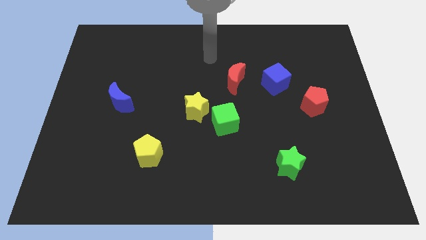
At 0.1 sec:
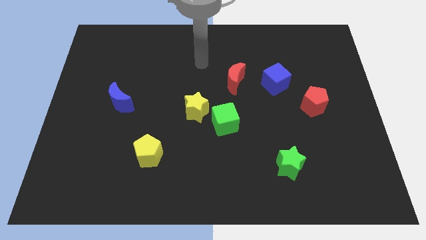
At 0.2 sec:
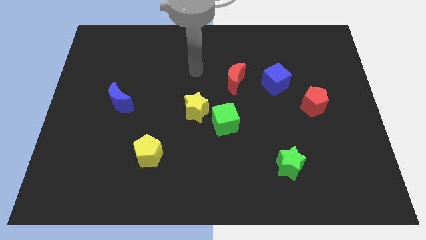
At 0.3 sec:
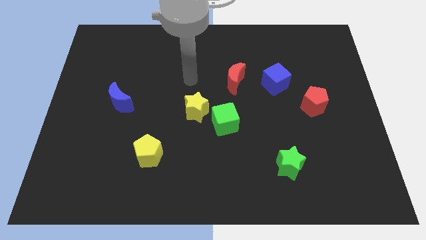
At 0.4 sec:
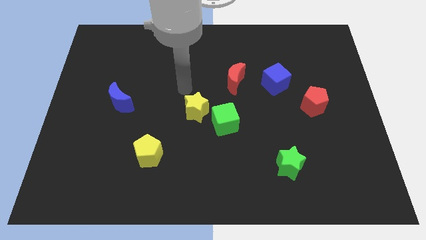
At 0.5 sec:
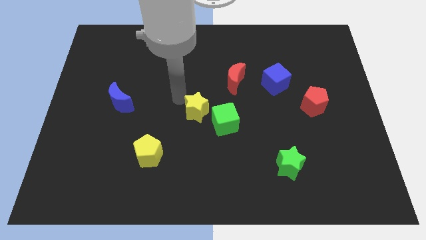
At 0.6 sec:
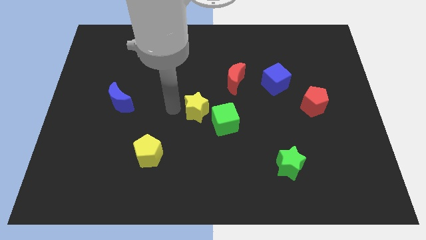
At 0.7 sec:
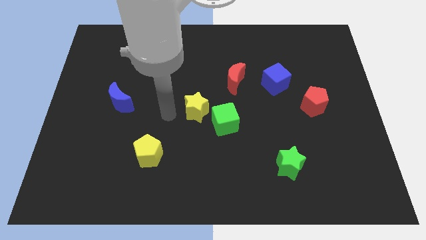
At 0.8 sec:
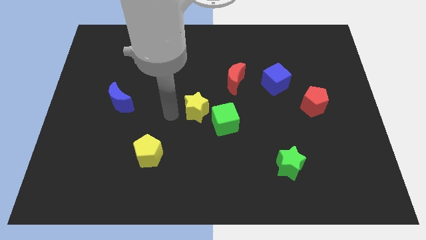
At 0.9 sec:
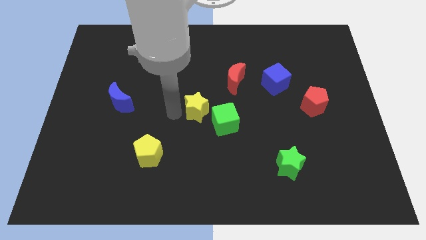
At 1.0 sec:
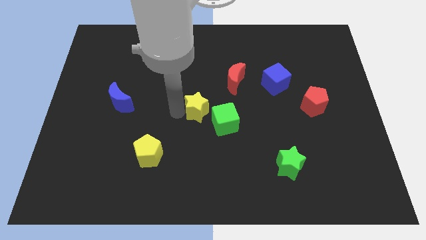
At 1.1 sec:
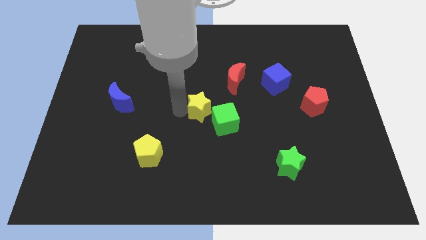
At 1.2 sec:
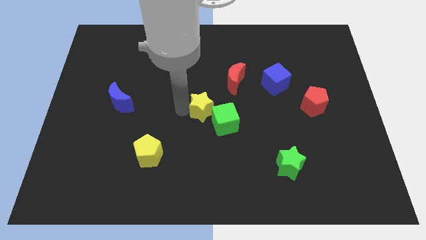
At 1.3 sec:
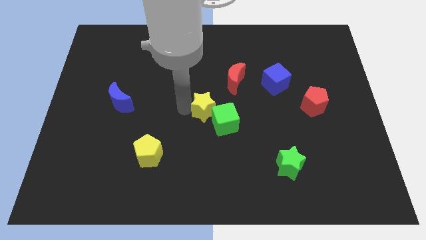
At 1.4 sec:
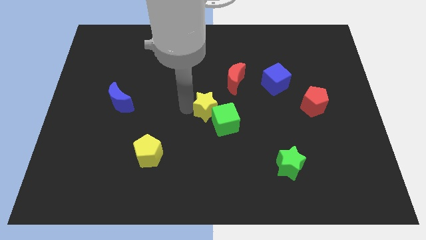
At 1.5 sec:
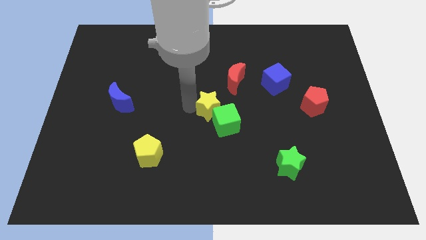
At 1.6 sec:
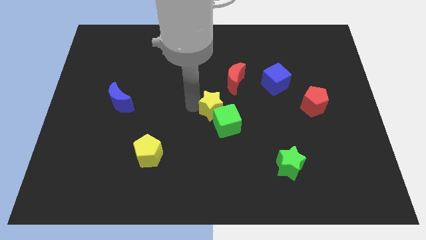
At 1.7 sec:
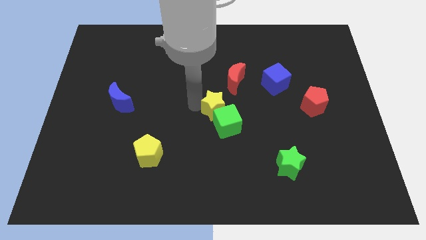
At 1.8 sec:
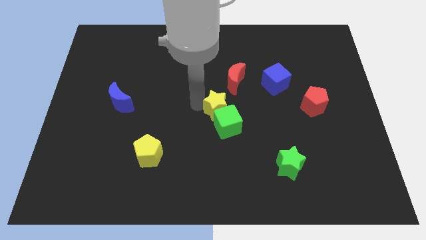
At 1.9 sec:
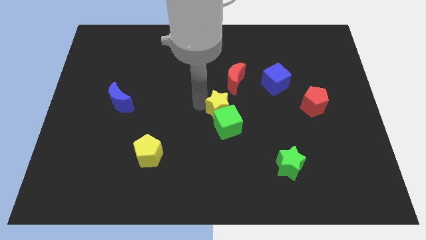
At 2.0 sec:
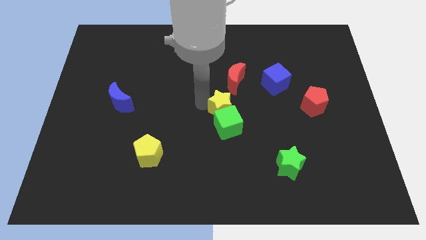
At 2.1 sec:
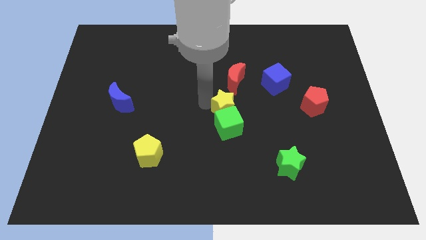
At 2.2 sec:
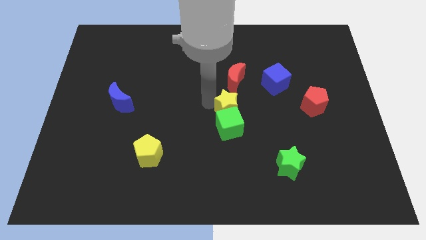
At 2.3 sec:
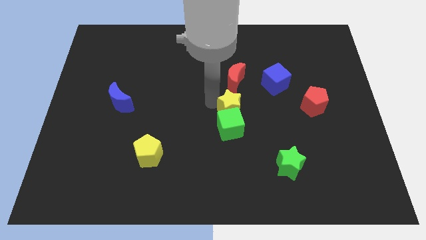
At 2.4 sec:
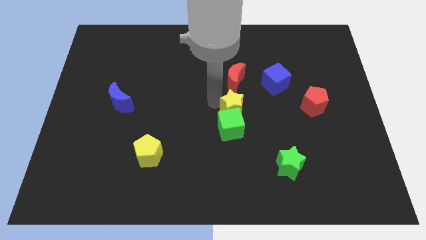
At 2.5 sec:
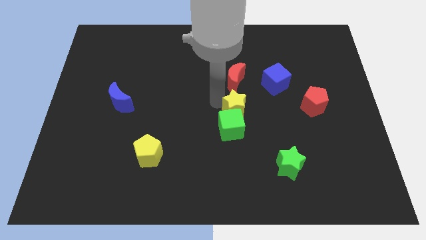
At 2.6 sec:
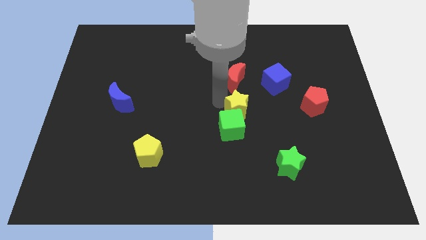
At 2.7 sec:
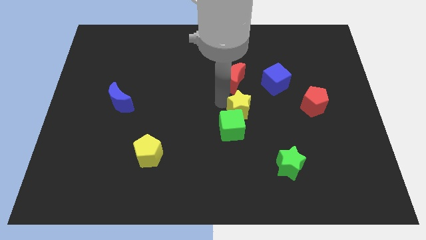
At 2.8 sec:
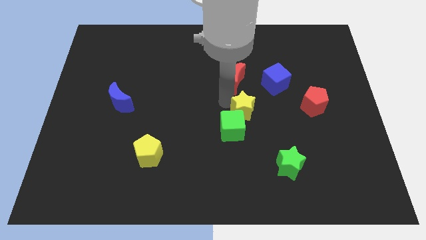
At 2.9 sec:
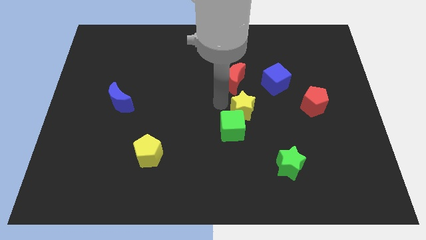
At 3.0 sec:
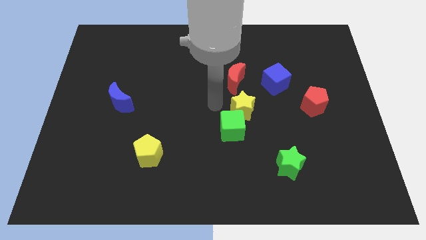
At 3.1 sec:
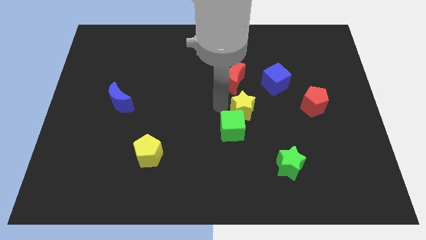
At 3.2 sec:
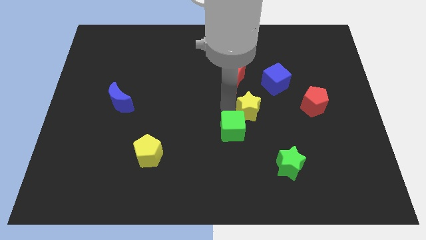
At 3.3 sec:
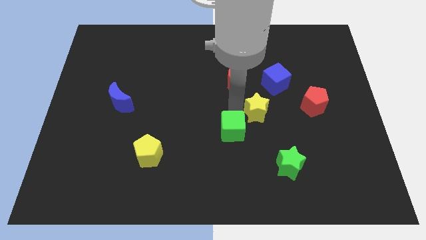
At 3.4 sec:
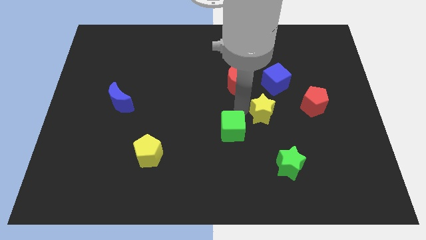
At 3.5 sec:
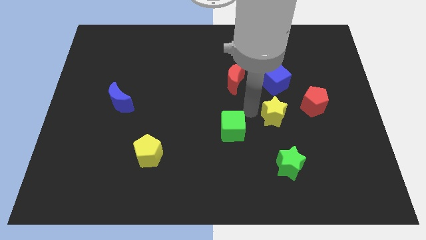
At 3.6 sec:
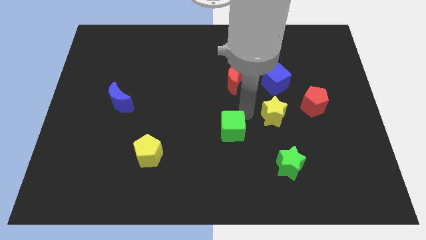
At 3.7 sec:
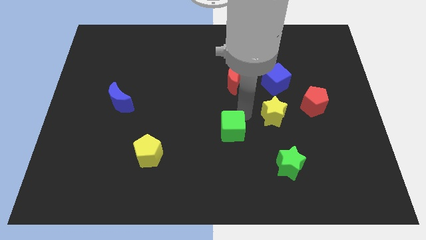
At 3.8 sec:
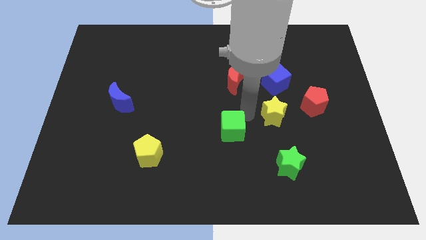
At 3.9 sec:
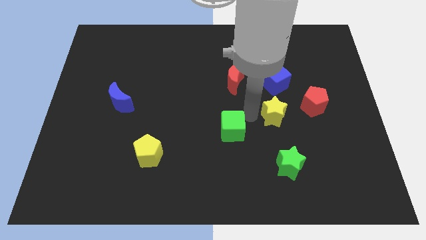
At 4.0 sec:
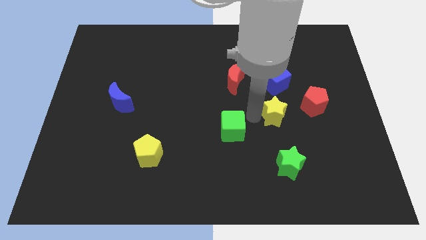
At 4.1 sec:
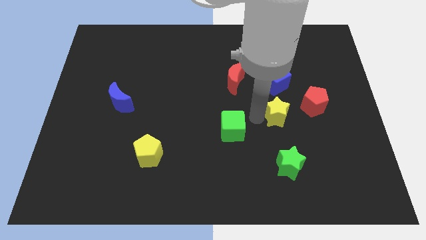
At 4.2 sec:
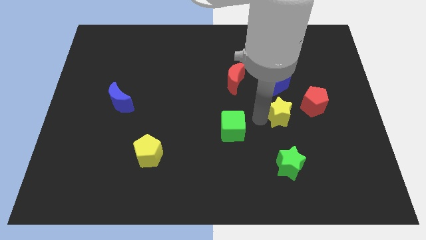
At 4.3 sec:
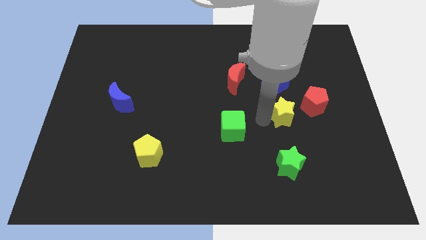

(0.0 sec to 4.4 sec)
move the yellow star to the right

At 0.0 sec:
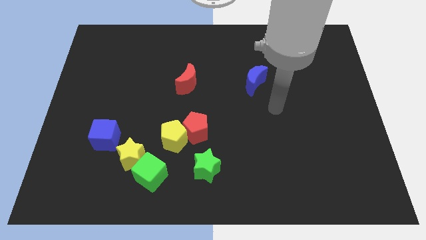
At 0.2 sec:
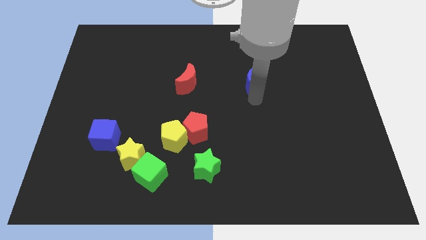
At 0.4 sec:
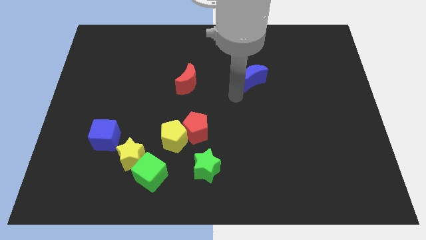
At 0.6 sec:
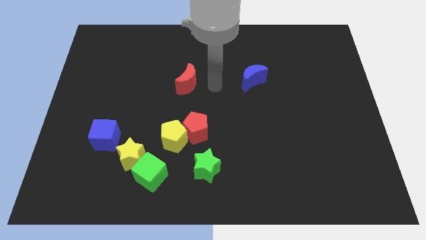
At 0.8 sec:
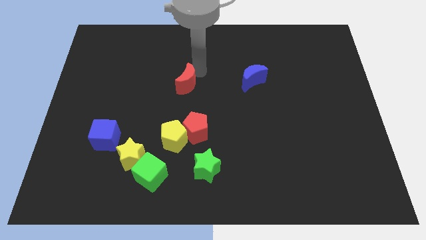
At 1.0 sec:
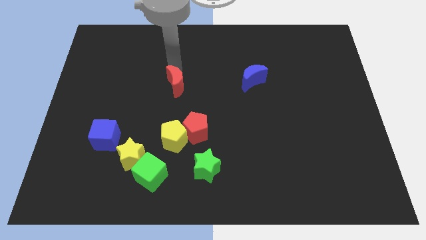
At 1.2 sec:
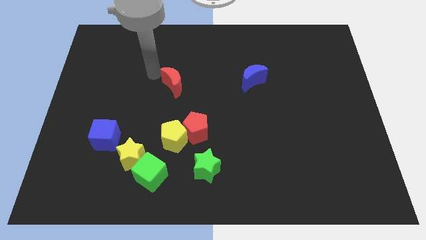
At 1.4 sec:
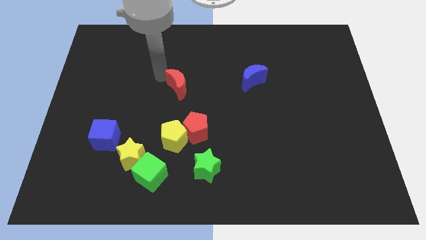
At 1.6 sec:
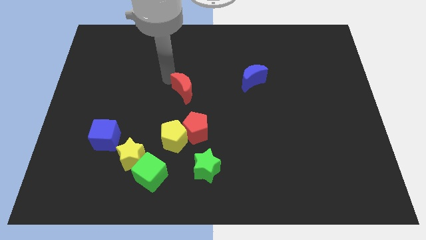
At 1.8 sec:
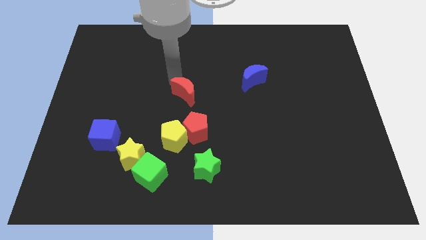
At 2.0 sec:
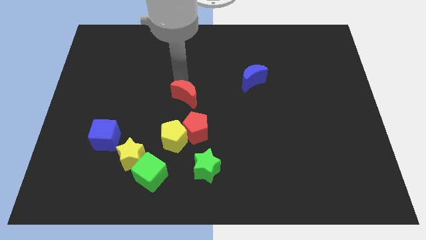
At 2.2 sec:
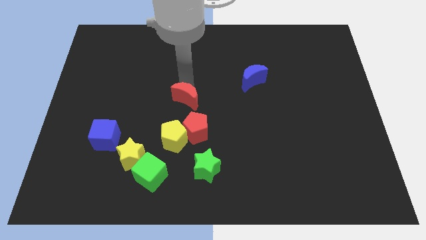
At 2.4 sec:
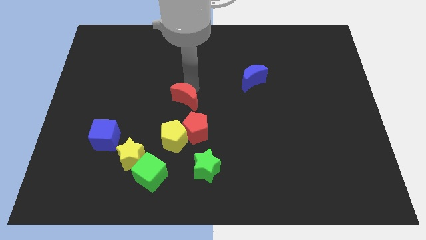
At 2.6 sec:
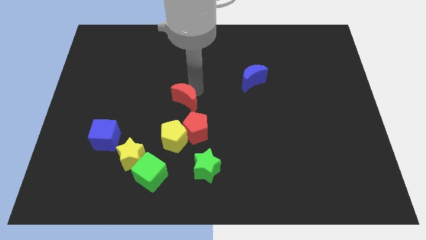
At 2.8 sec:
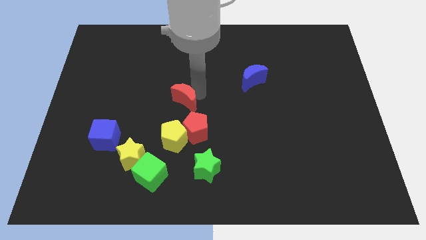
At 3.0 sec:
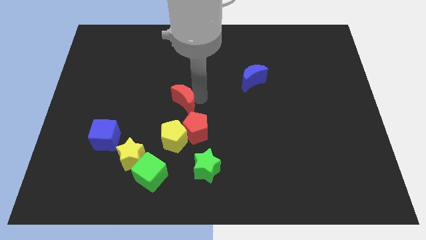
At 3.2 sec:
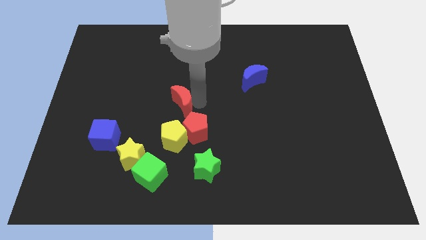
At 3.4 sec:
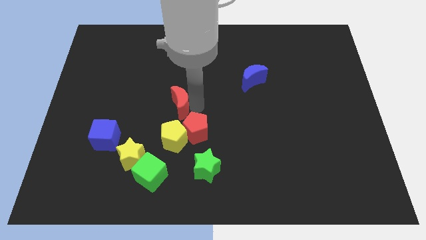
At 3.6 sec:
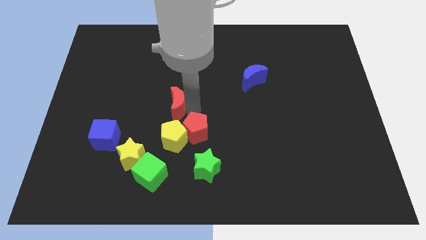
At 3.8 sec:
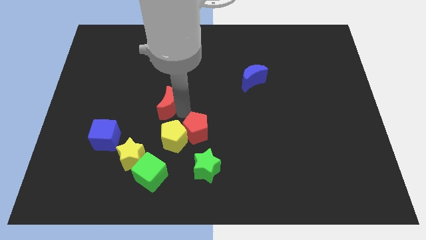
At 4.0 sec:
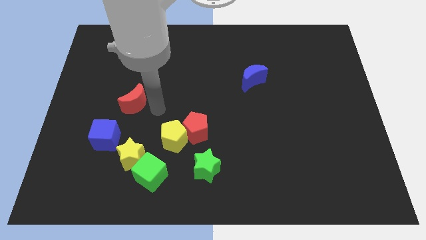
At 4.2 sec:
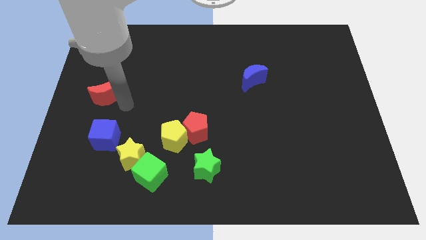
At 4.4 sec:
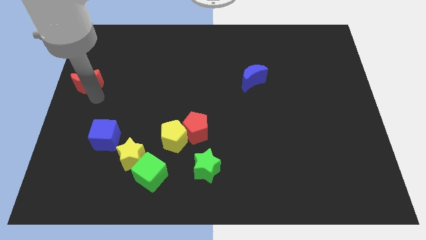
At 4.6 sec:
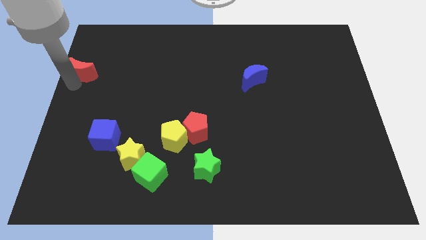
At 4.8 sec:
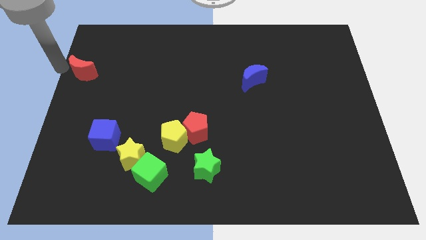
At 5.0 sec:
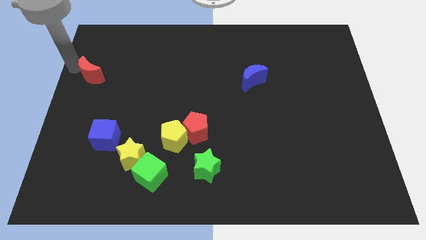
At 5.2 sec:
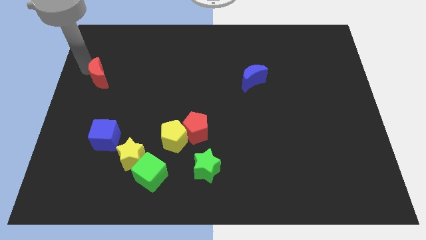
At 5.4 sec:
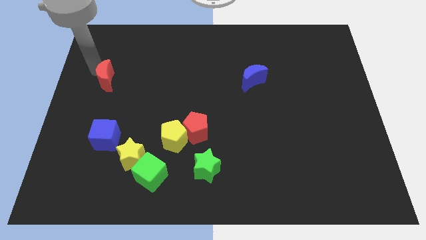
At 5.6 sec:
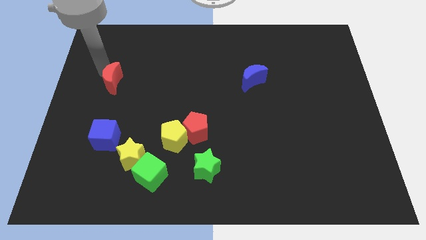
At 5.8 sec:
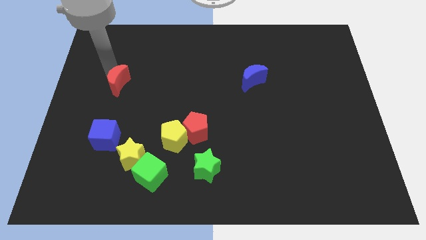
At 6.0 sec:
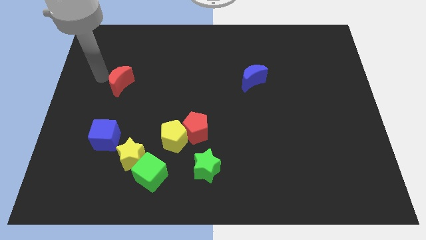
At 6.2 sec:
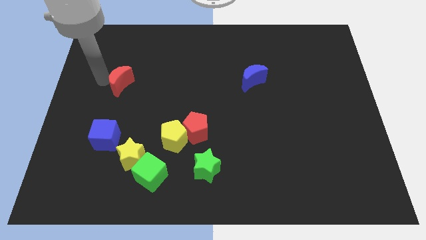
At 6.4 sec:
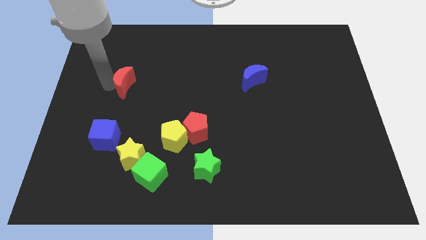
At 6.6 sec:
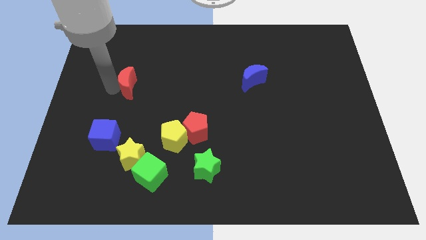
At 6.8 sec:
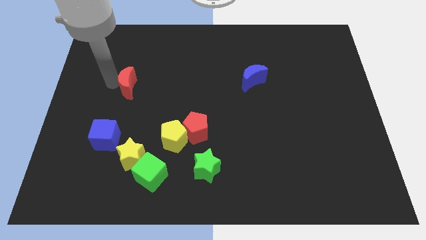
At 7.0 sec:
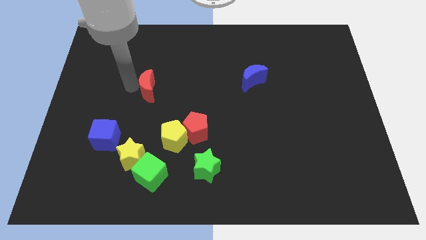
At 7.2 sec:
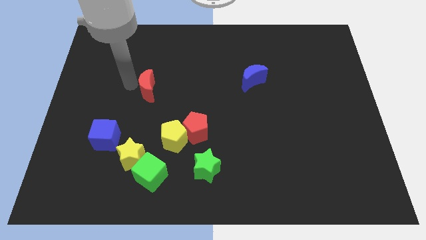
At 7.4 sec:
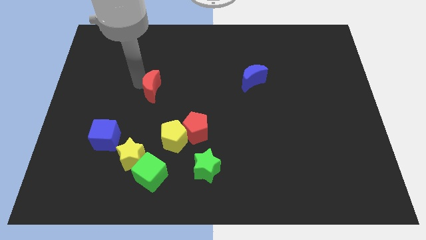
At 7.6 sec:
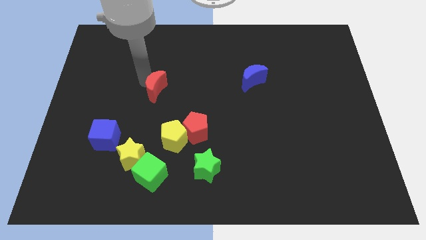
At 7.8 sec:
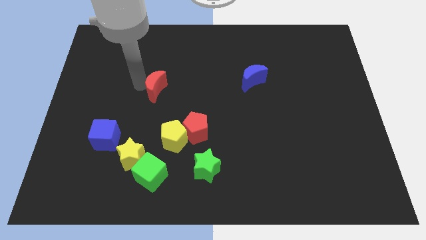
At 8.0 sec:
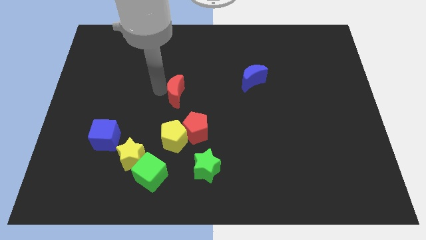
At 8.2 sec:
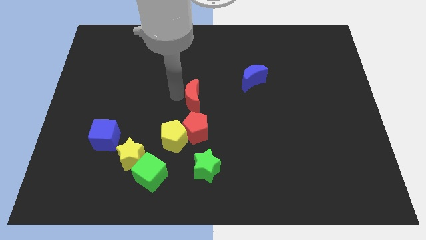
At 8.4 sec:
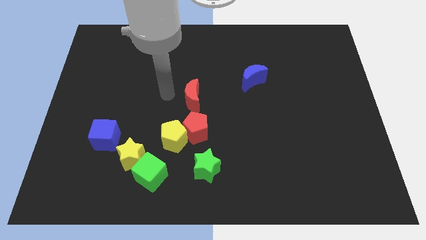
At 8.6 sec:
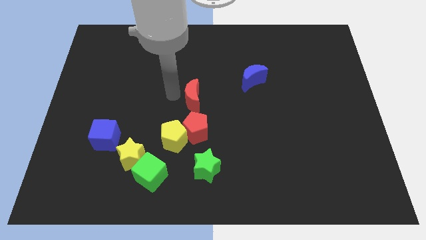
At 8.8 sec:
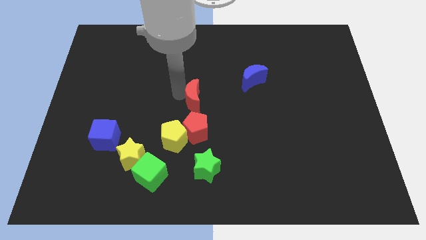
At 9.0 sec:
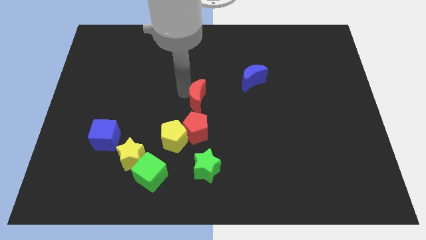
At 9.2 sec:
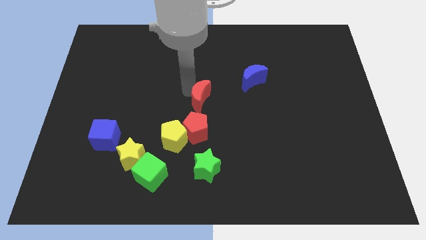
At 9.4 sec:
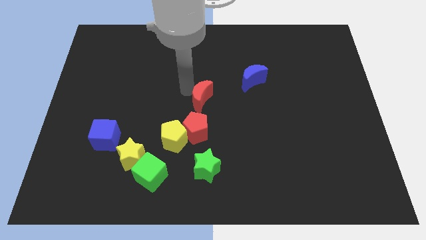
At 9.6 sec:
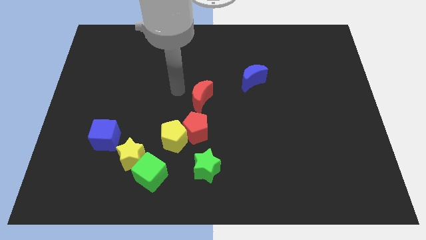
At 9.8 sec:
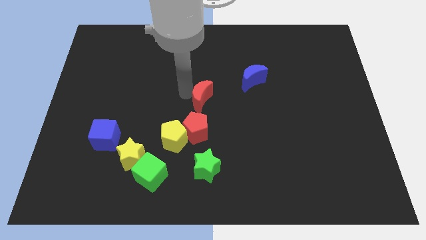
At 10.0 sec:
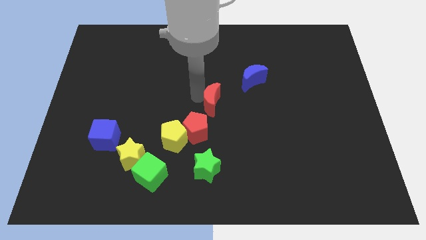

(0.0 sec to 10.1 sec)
slide the red moon down and right a bit
